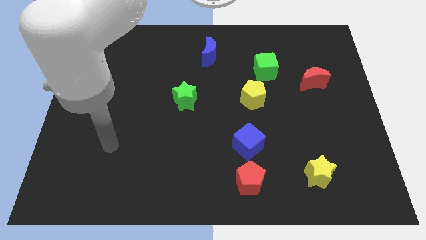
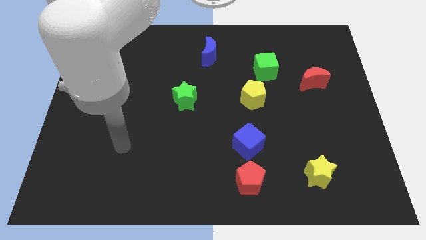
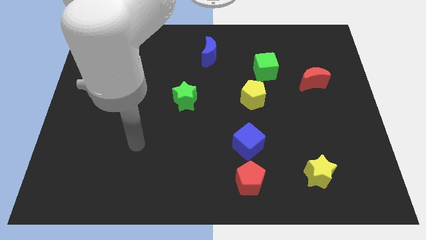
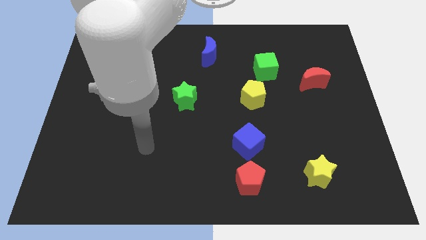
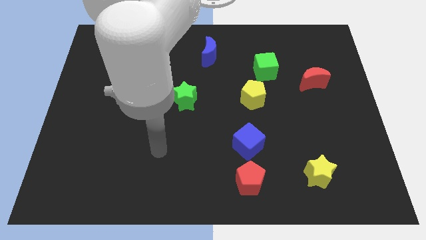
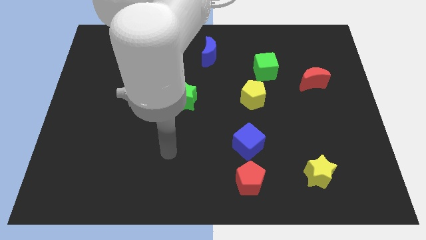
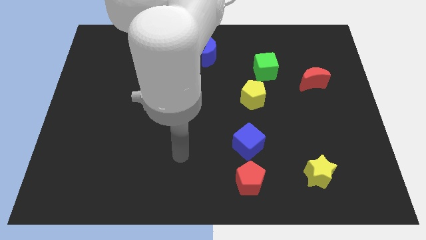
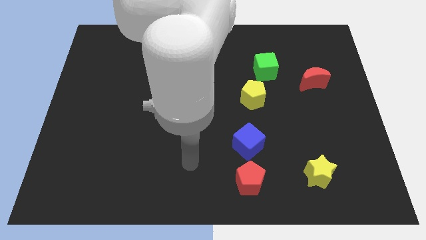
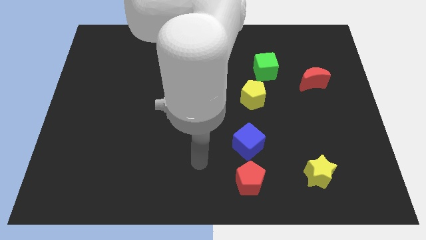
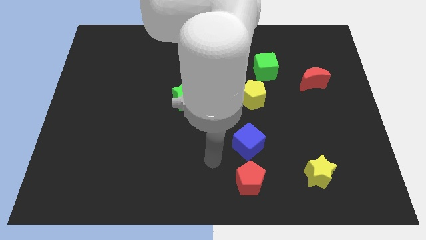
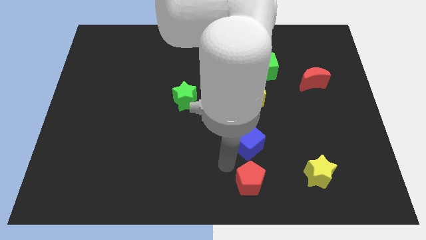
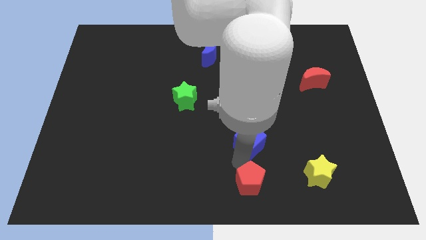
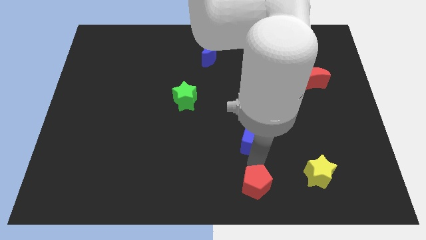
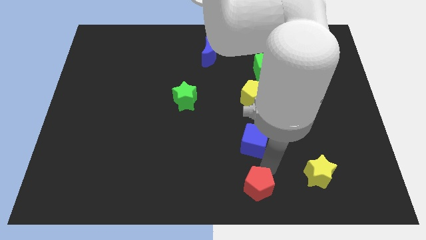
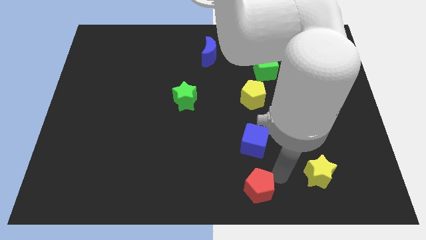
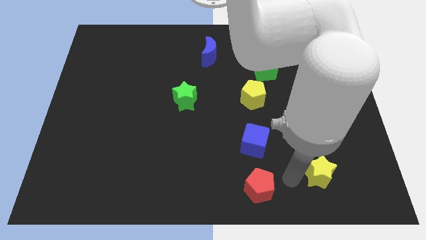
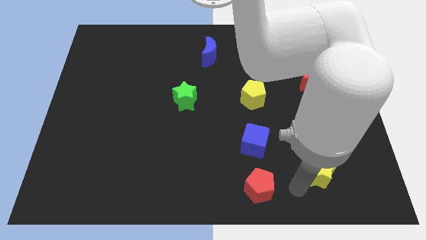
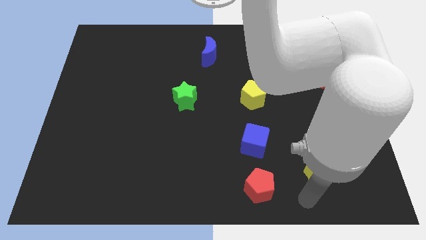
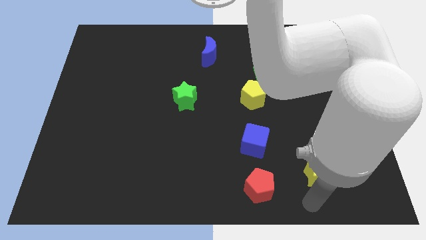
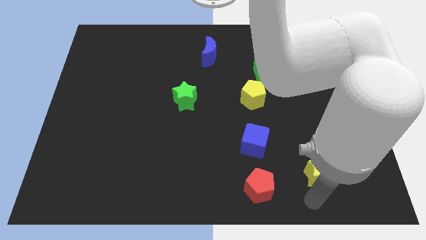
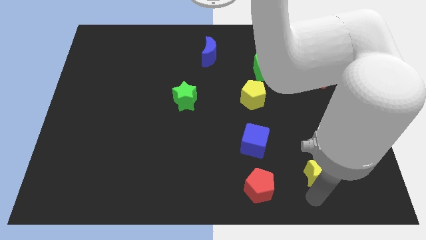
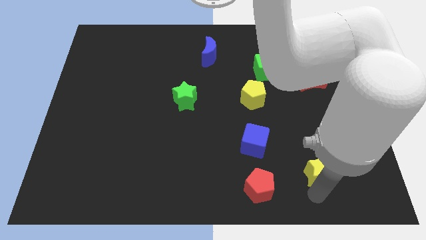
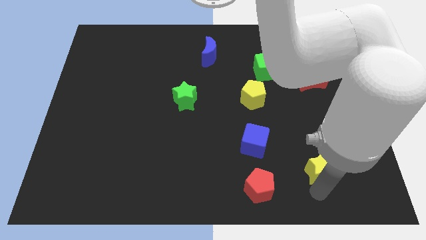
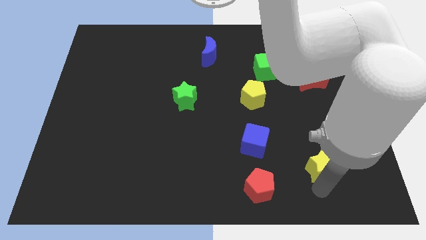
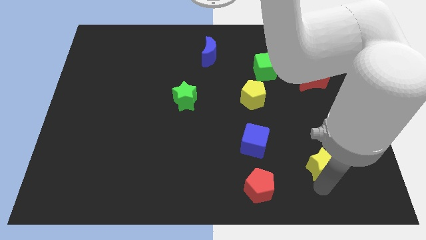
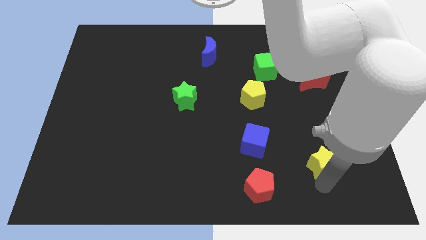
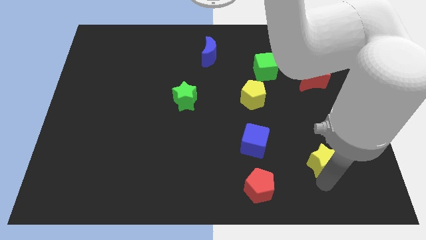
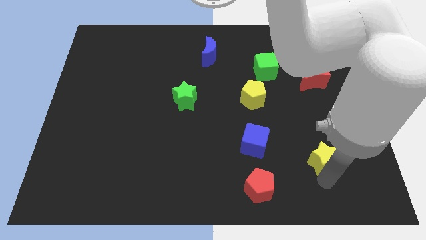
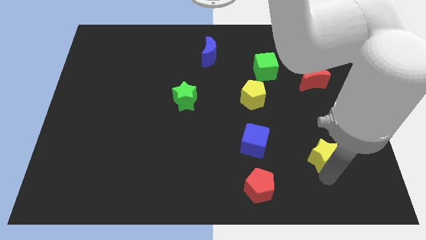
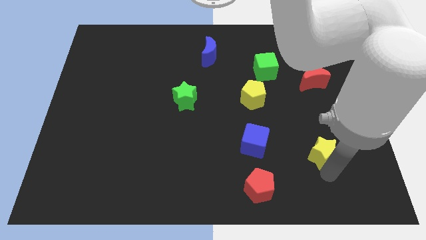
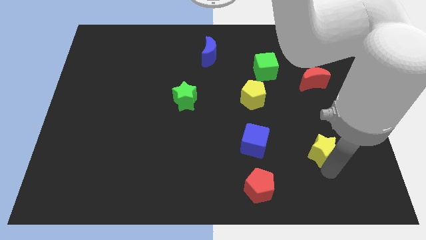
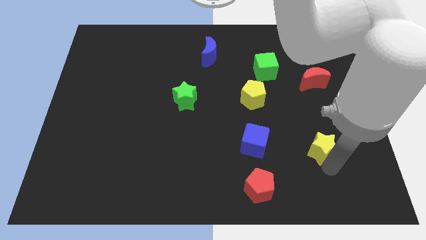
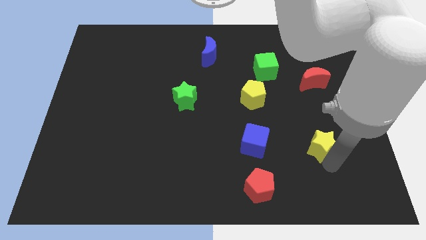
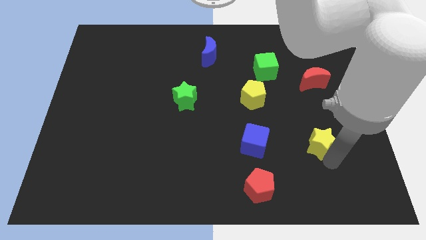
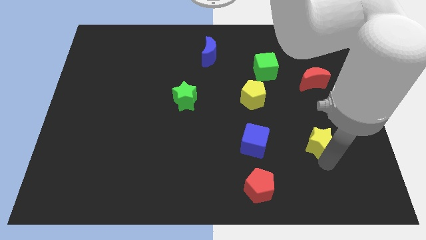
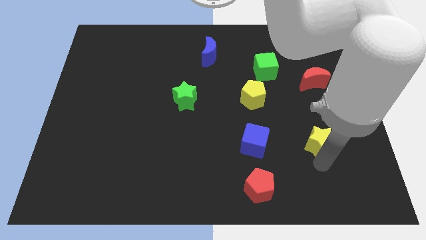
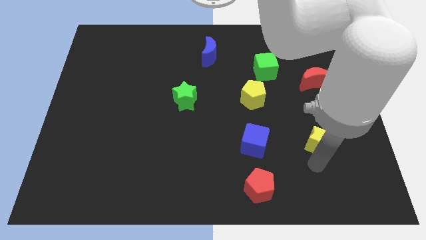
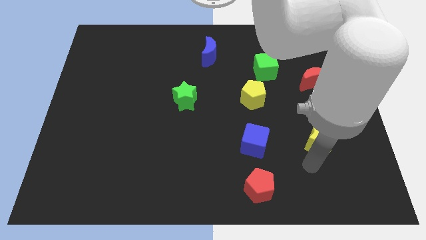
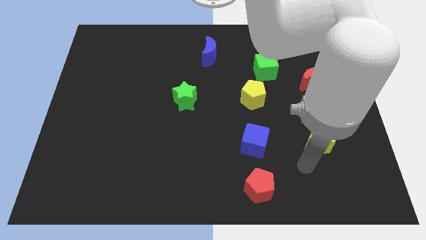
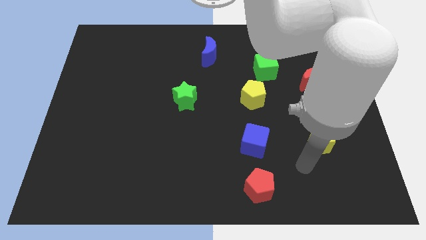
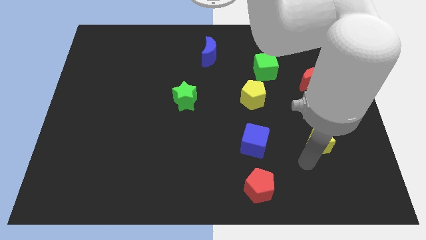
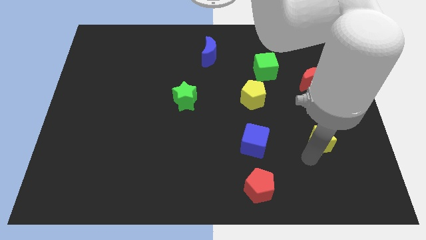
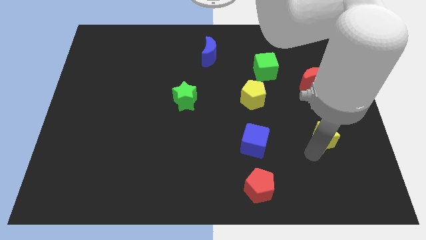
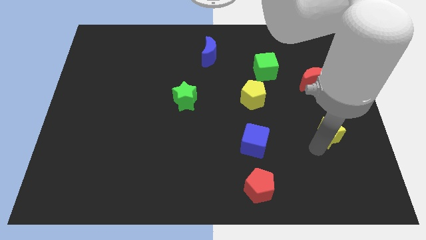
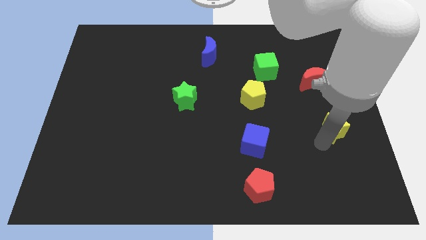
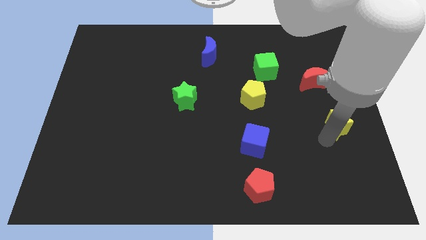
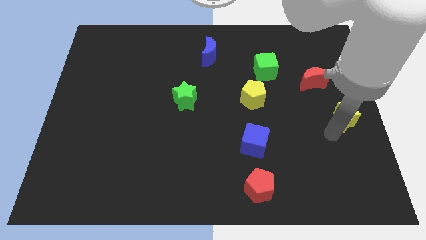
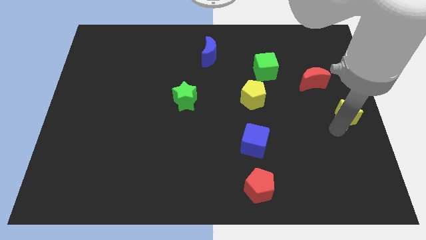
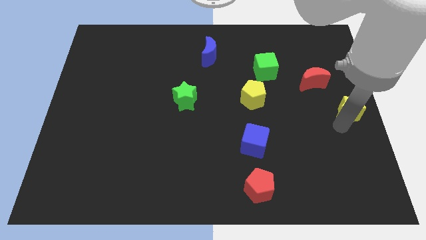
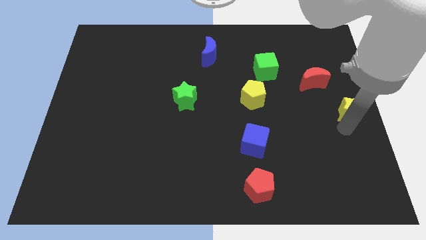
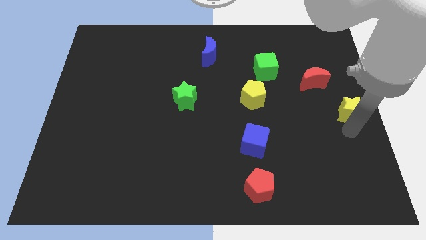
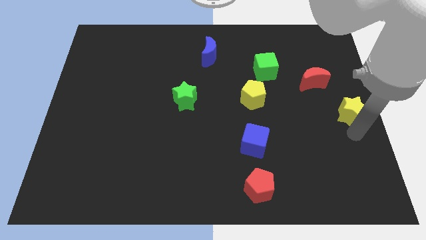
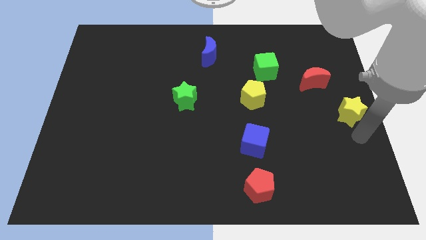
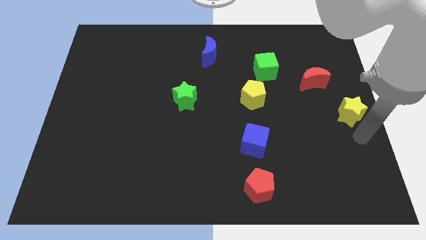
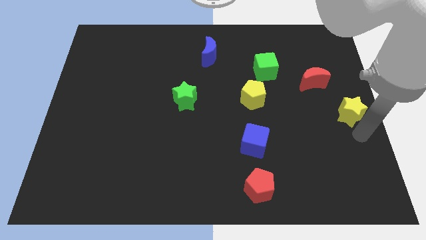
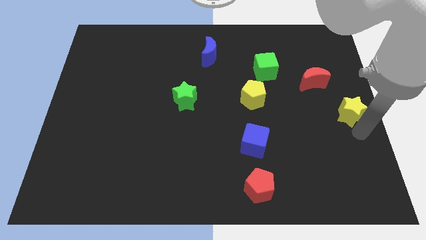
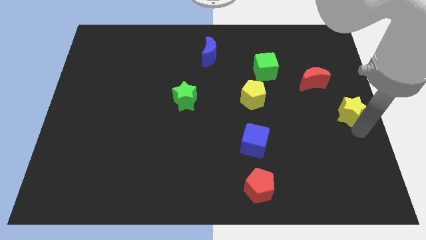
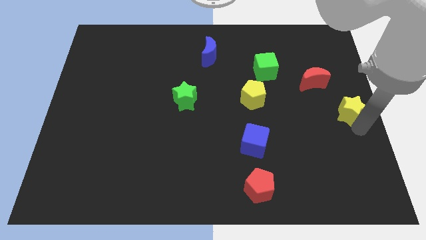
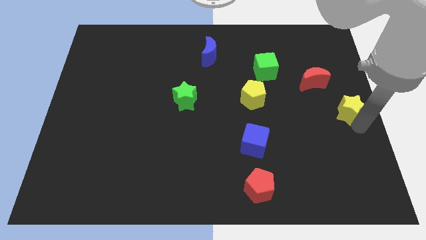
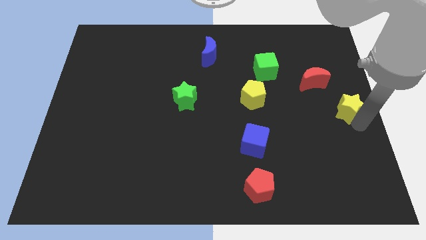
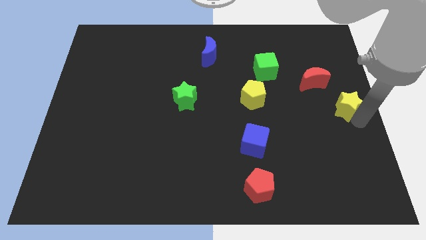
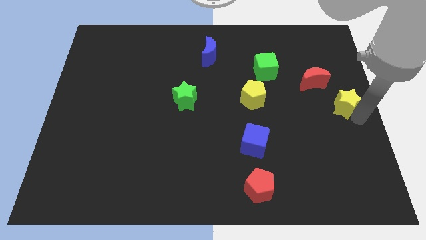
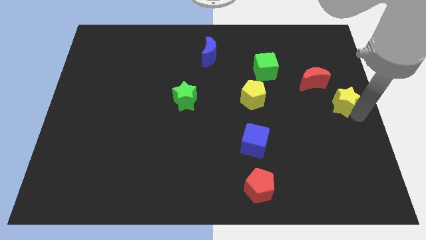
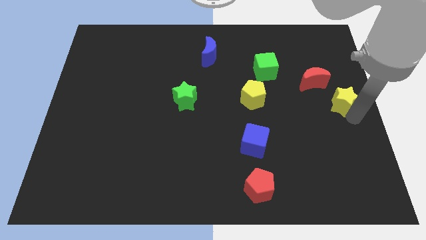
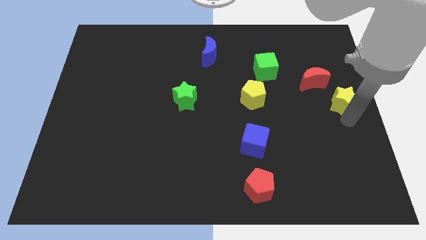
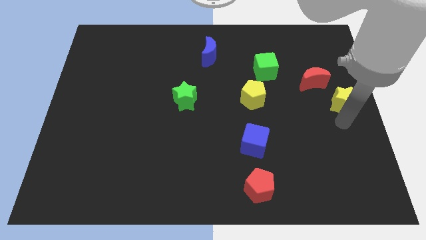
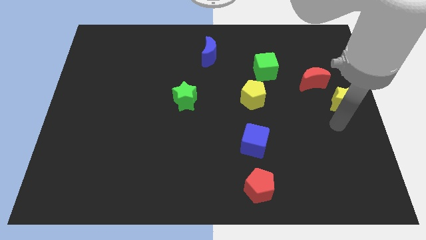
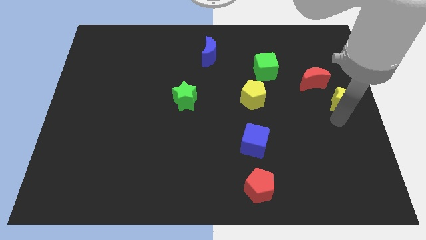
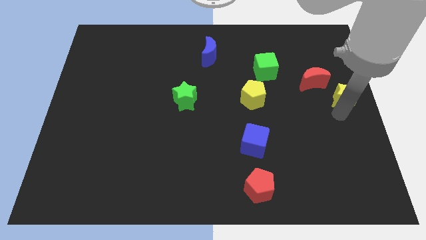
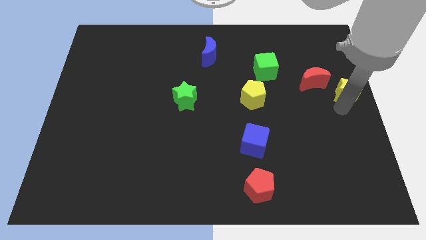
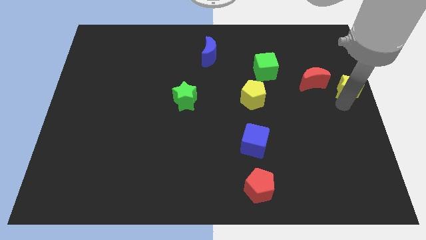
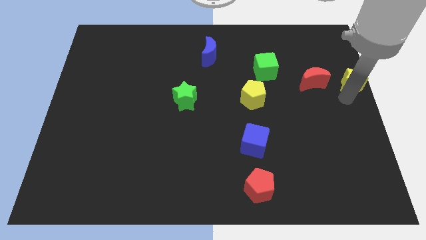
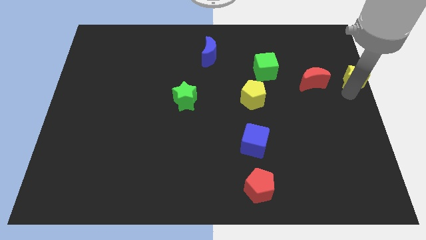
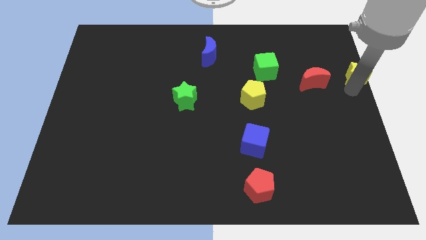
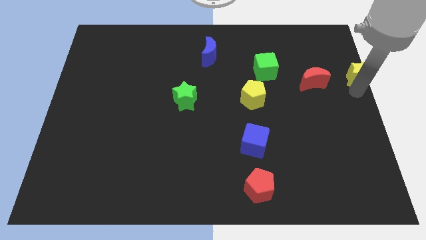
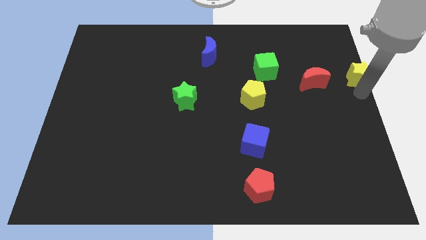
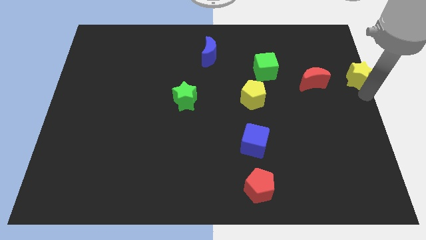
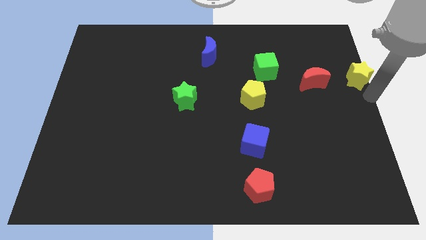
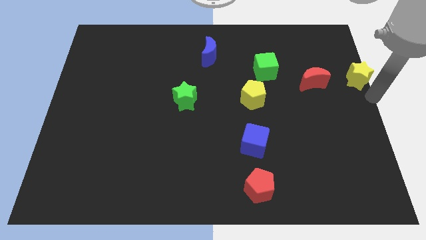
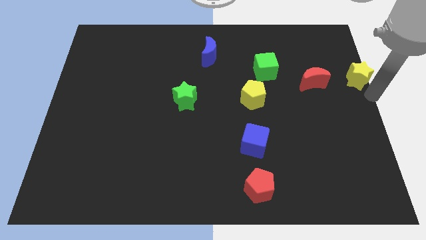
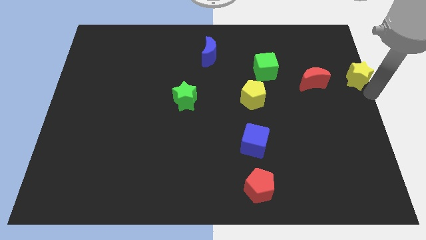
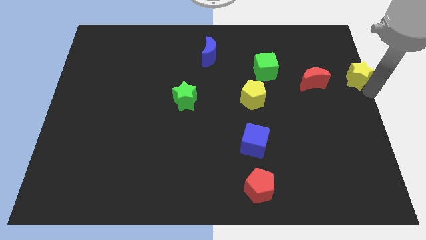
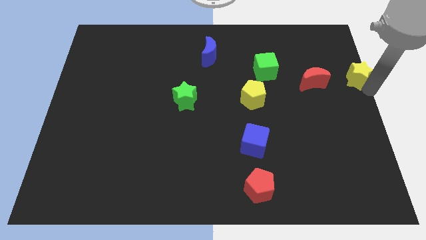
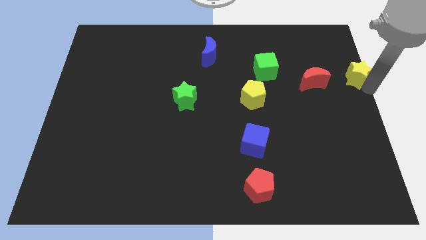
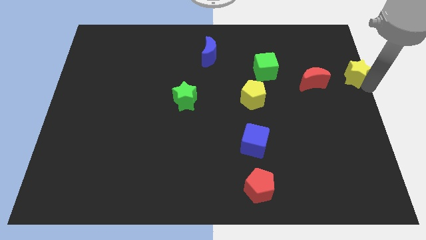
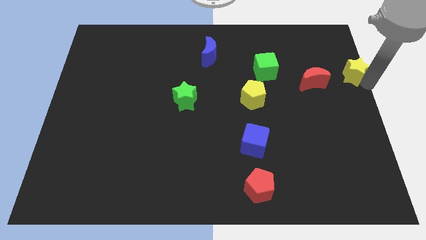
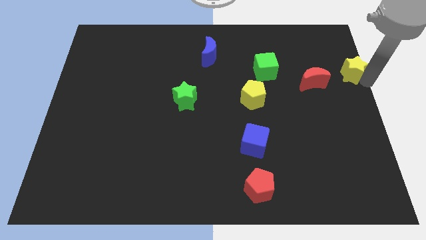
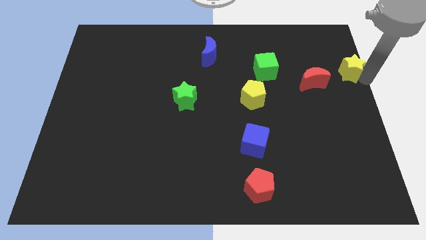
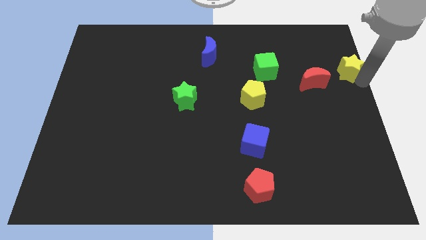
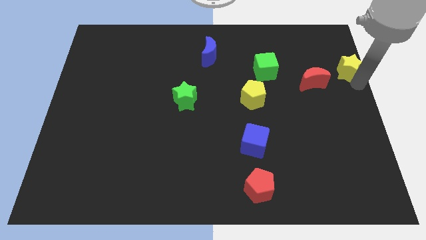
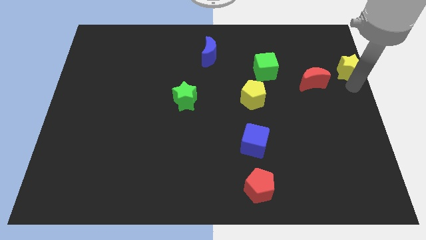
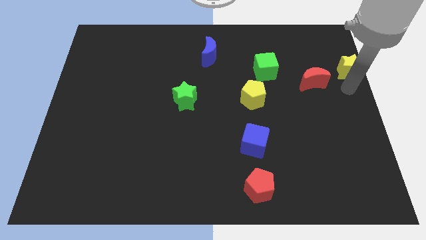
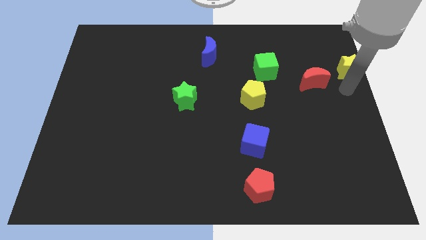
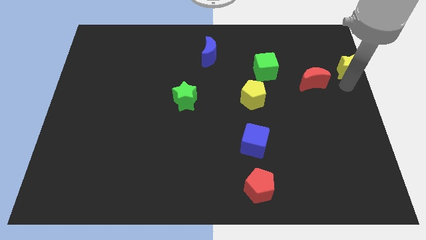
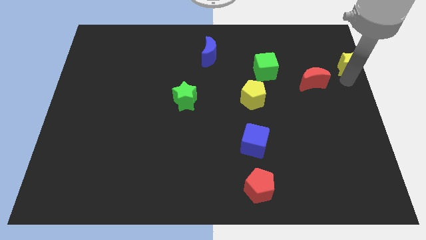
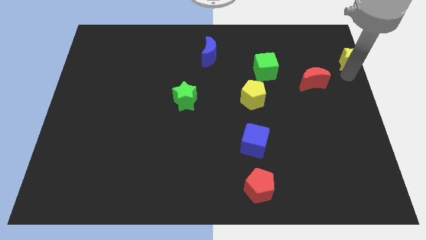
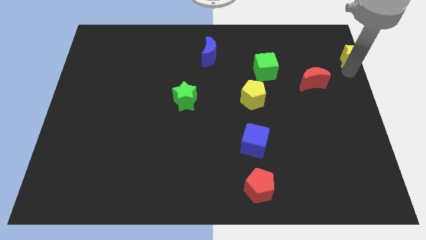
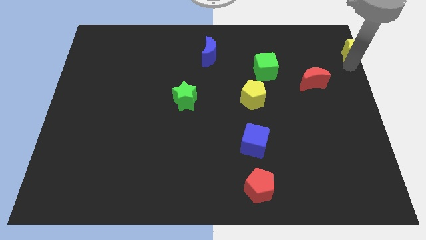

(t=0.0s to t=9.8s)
push the yellow star to the top right
